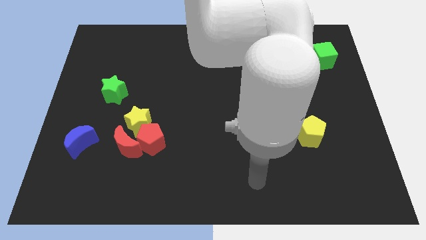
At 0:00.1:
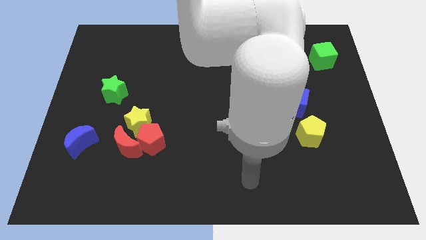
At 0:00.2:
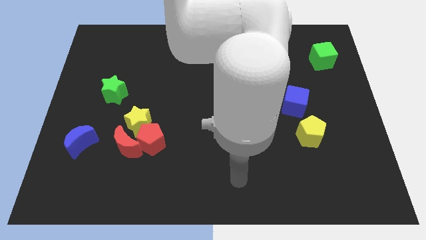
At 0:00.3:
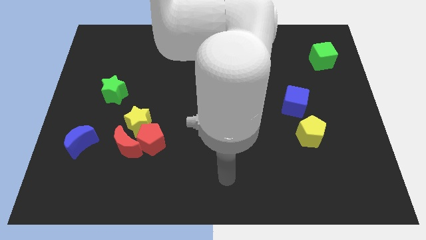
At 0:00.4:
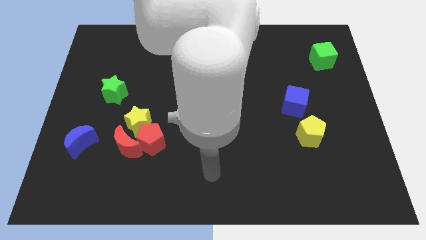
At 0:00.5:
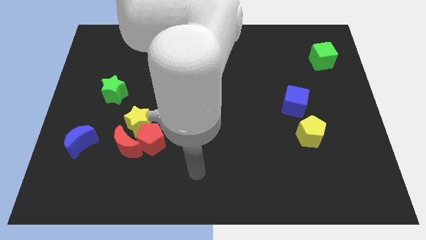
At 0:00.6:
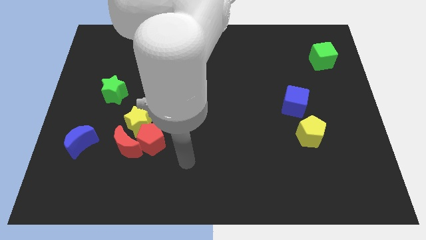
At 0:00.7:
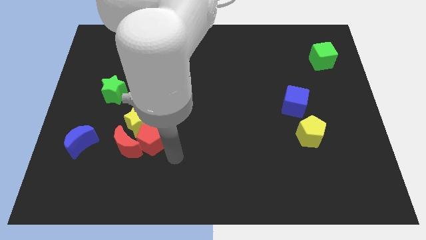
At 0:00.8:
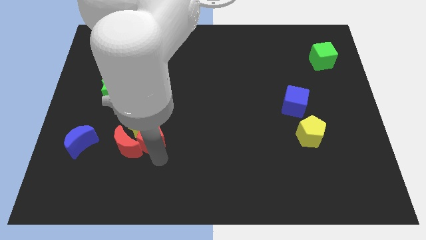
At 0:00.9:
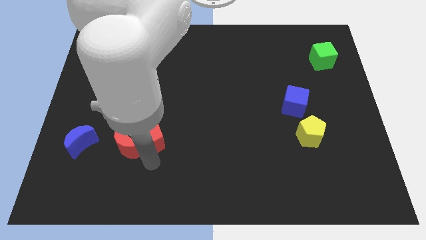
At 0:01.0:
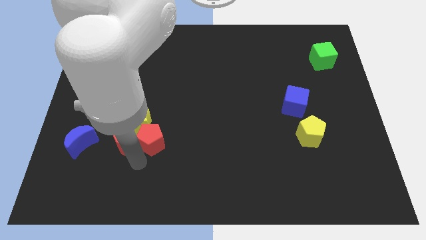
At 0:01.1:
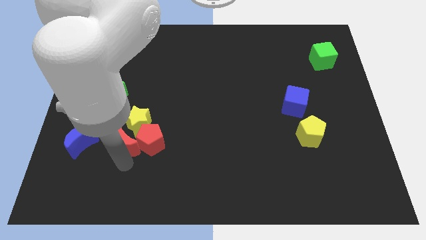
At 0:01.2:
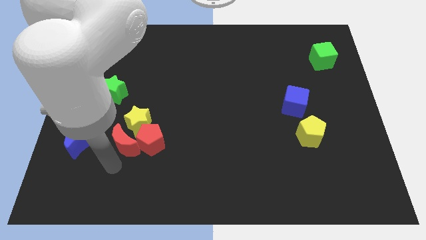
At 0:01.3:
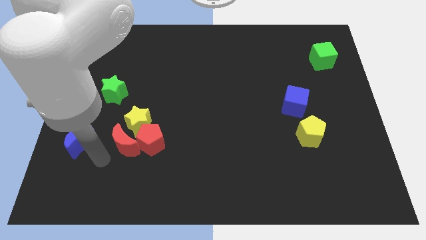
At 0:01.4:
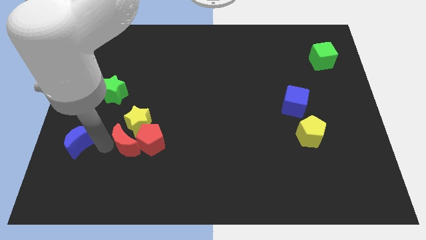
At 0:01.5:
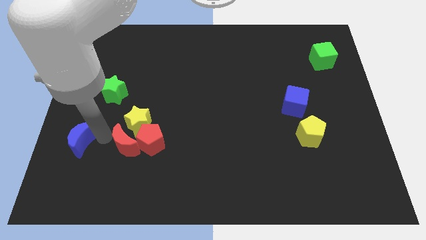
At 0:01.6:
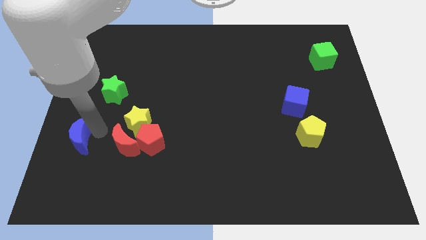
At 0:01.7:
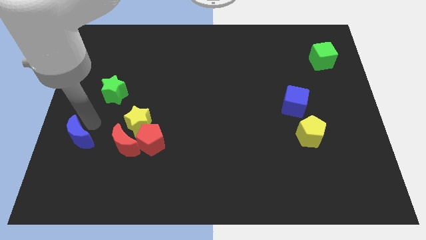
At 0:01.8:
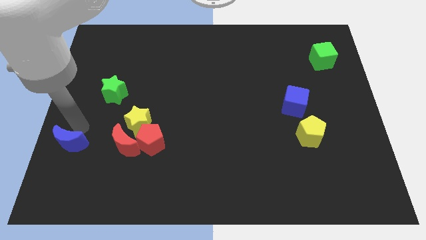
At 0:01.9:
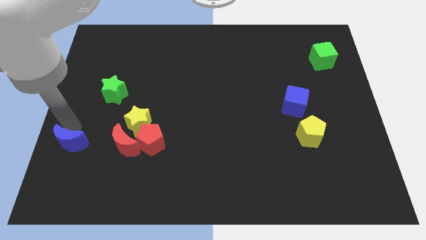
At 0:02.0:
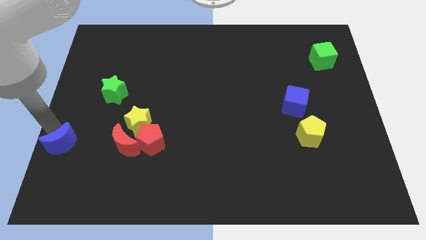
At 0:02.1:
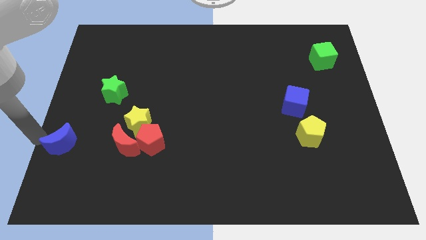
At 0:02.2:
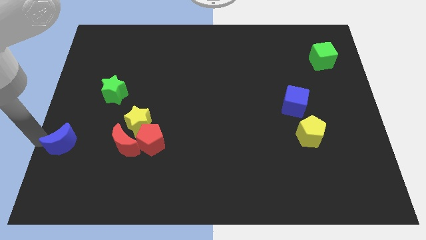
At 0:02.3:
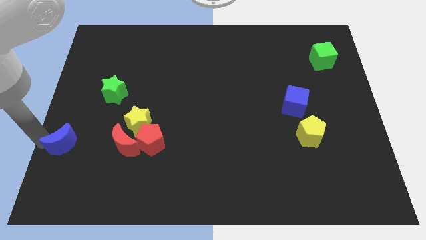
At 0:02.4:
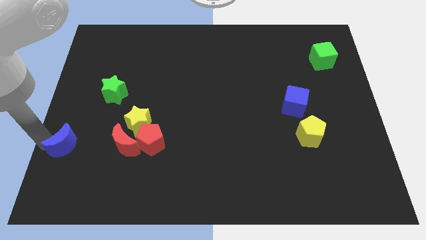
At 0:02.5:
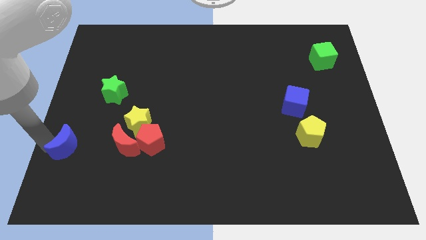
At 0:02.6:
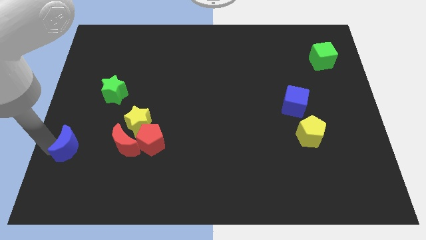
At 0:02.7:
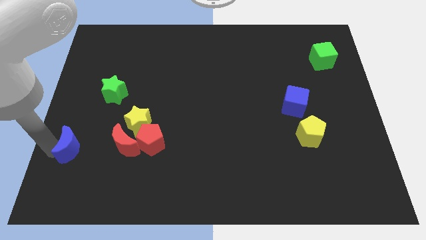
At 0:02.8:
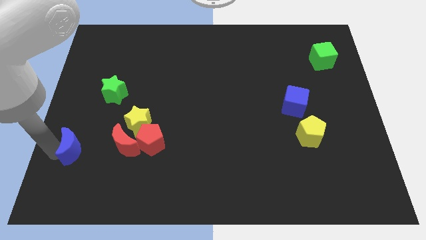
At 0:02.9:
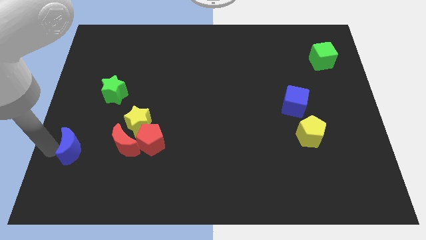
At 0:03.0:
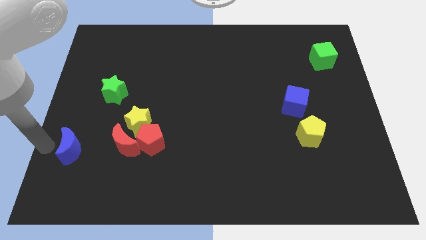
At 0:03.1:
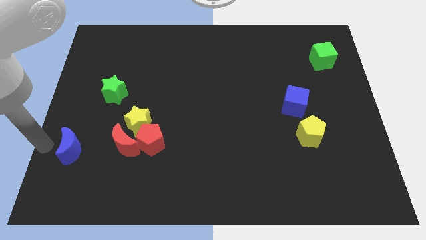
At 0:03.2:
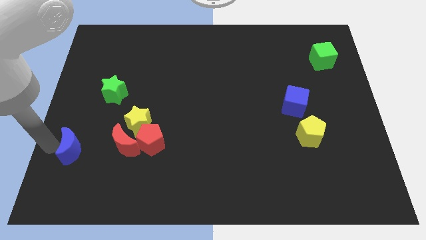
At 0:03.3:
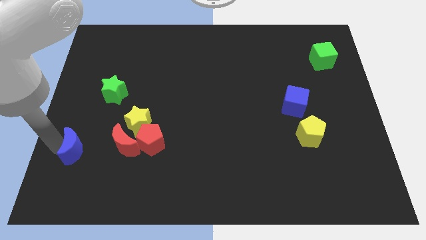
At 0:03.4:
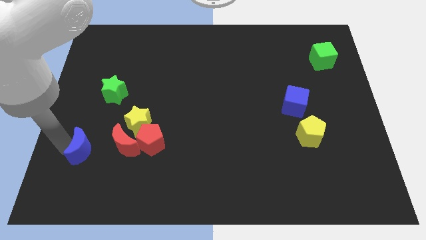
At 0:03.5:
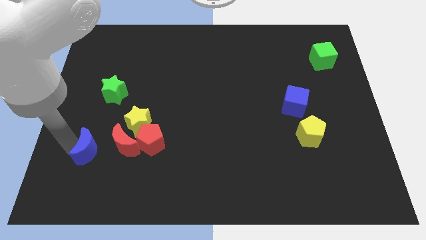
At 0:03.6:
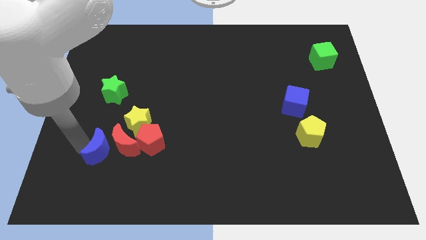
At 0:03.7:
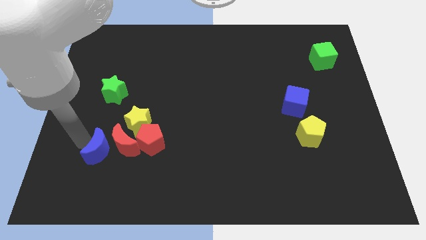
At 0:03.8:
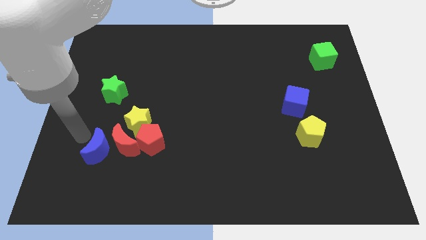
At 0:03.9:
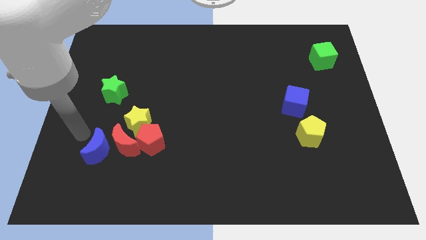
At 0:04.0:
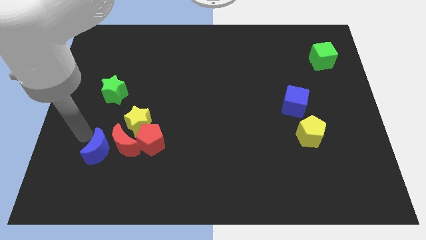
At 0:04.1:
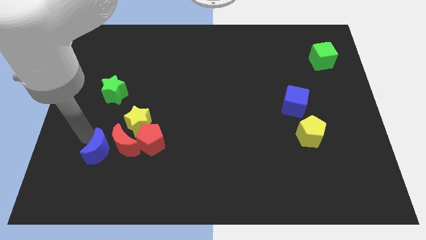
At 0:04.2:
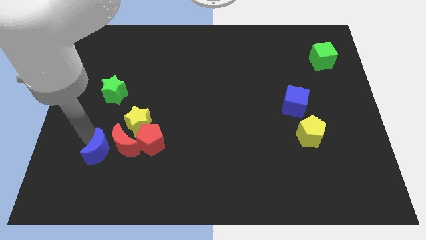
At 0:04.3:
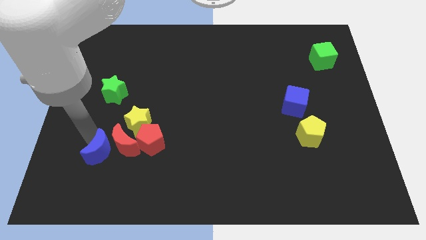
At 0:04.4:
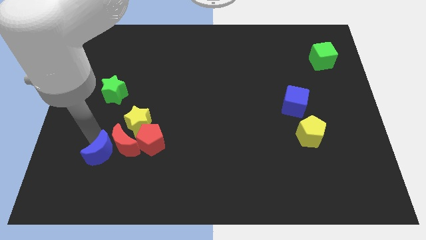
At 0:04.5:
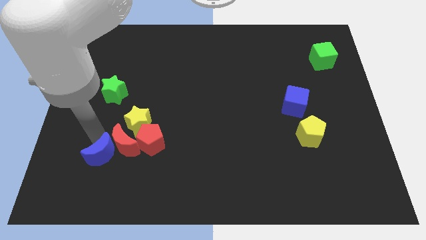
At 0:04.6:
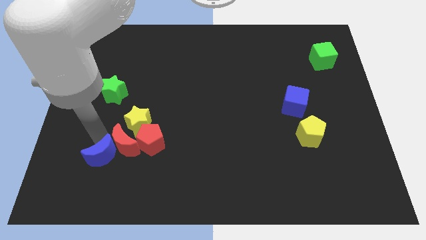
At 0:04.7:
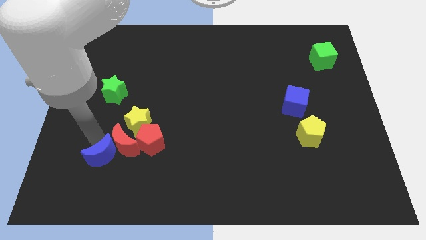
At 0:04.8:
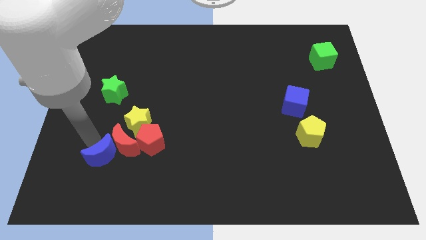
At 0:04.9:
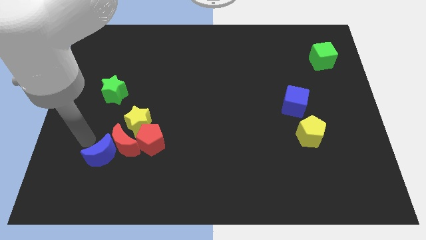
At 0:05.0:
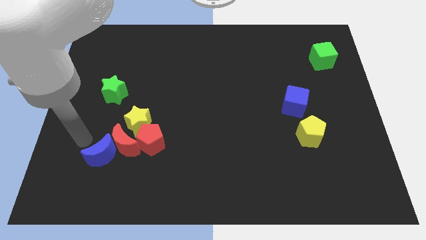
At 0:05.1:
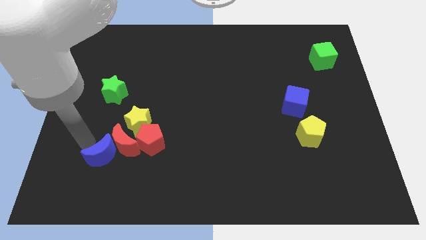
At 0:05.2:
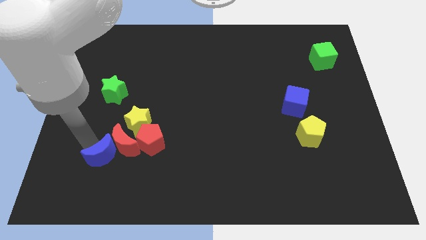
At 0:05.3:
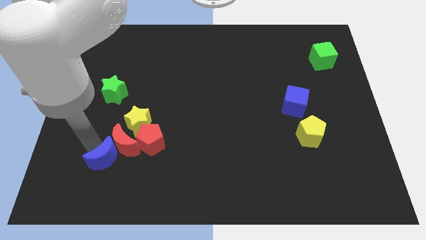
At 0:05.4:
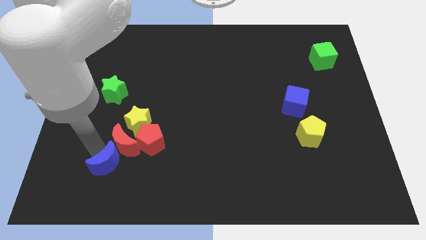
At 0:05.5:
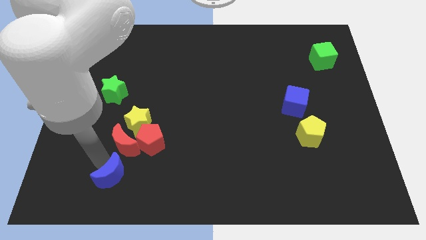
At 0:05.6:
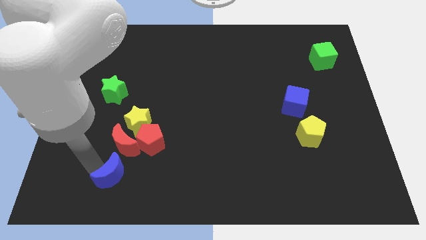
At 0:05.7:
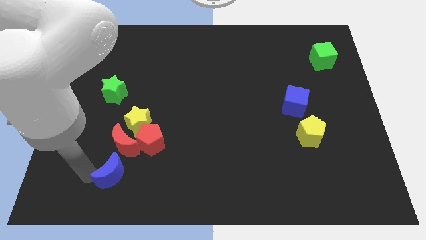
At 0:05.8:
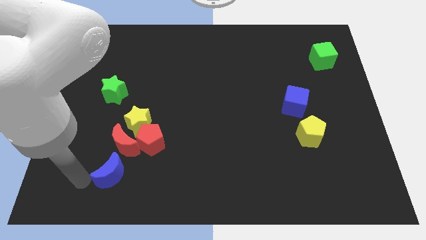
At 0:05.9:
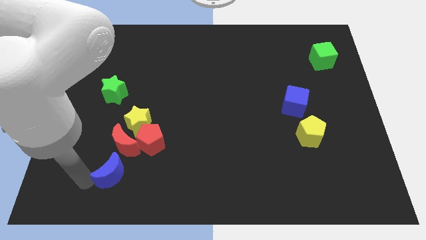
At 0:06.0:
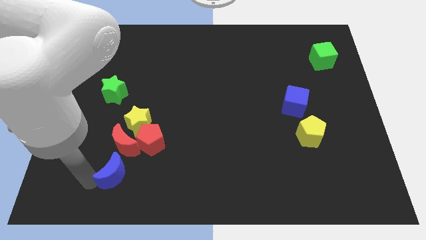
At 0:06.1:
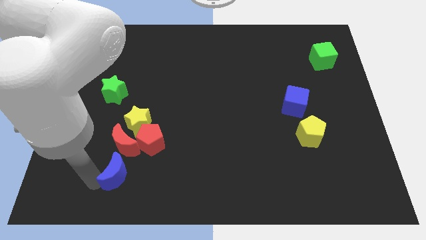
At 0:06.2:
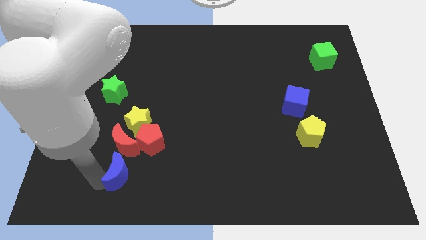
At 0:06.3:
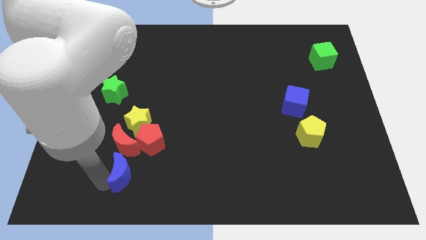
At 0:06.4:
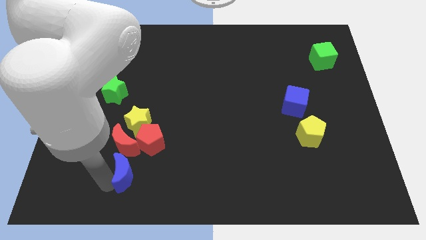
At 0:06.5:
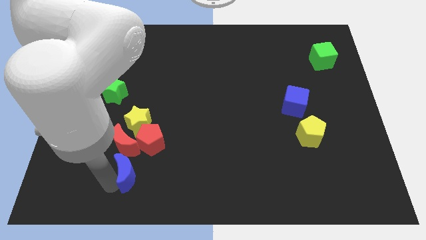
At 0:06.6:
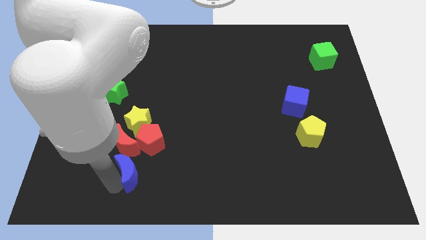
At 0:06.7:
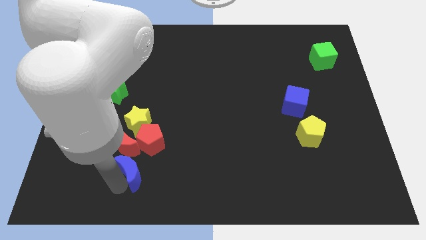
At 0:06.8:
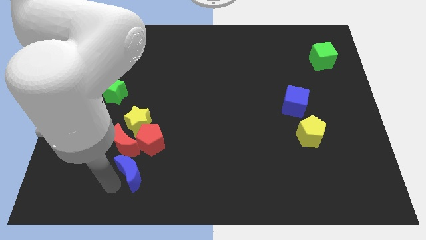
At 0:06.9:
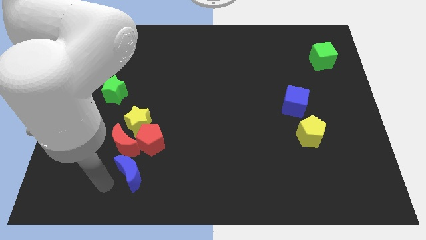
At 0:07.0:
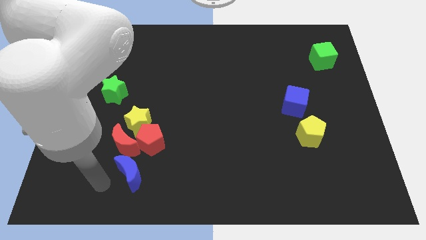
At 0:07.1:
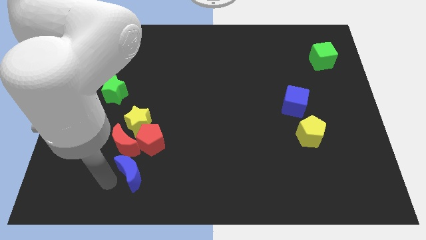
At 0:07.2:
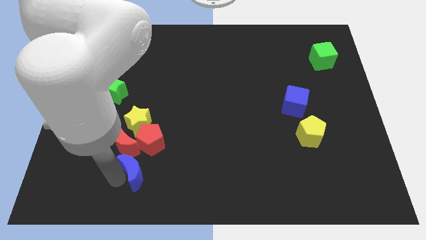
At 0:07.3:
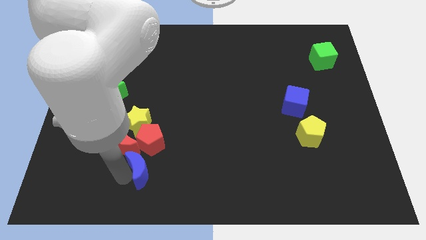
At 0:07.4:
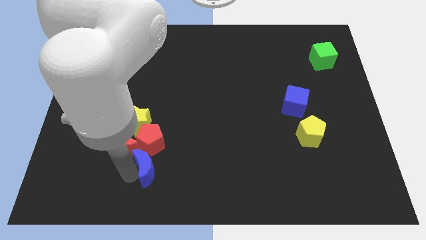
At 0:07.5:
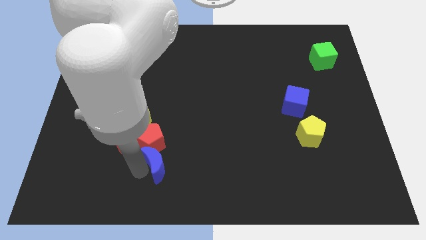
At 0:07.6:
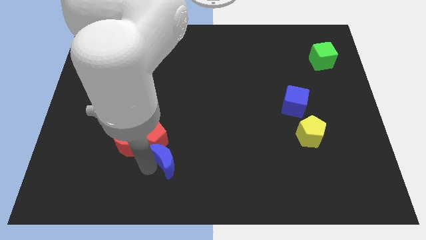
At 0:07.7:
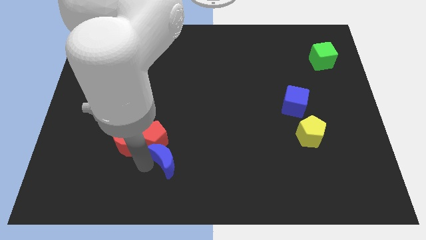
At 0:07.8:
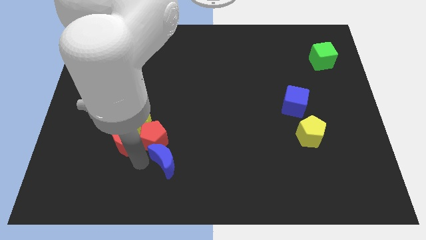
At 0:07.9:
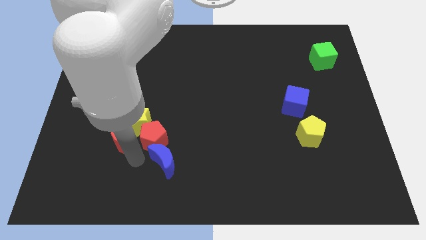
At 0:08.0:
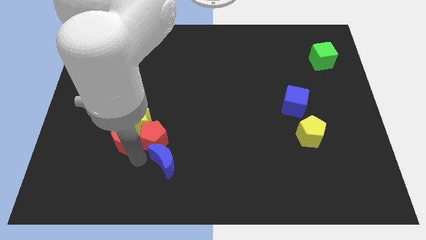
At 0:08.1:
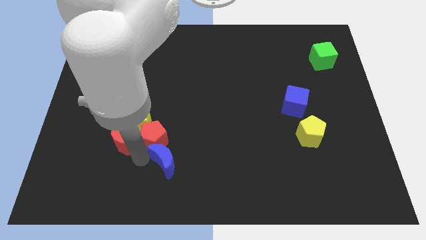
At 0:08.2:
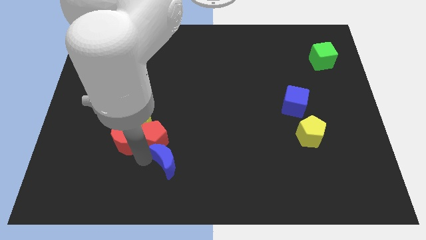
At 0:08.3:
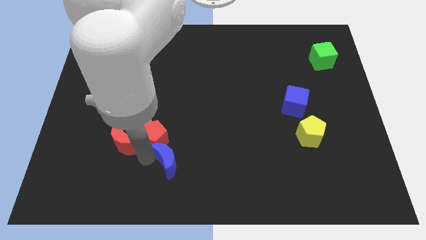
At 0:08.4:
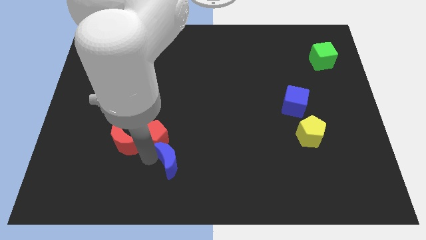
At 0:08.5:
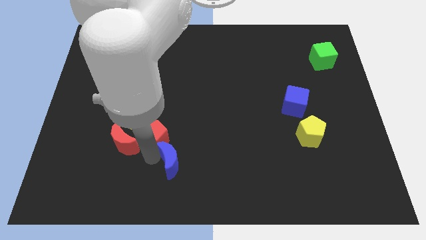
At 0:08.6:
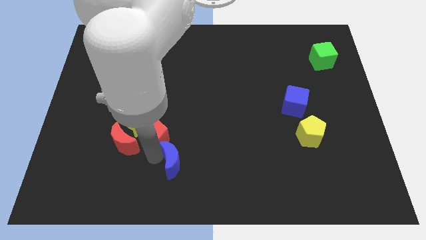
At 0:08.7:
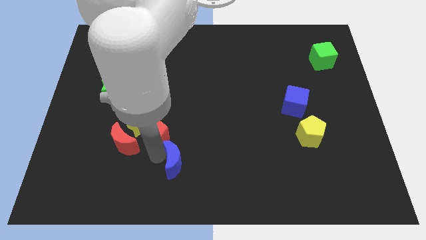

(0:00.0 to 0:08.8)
move the blue moon to the right
